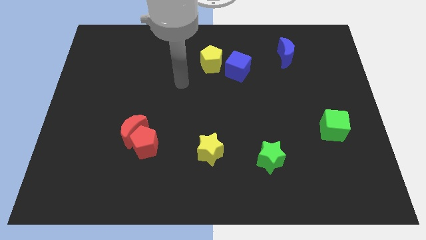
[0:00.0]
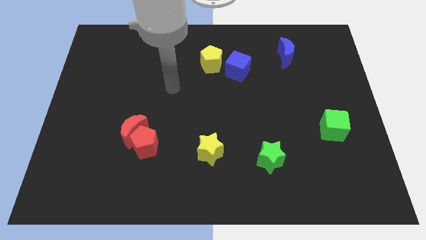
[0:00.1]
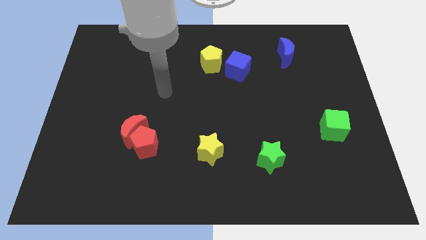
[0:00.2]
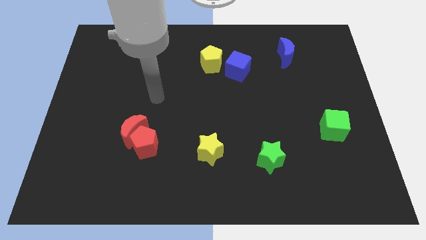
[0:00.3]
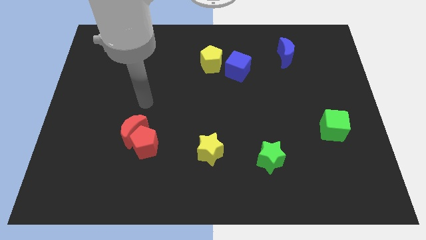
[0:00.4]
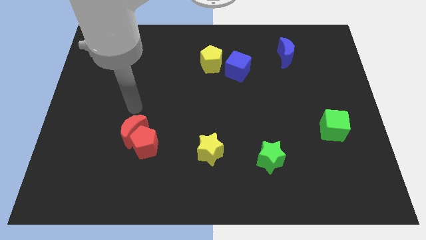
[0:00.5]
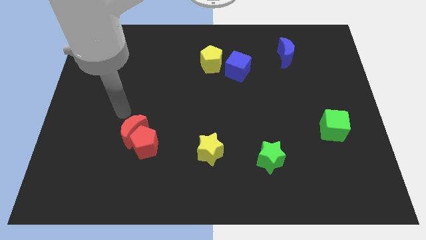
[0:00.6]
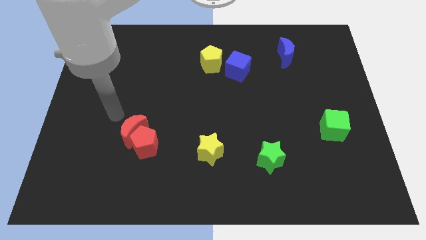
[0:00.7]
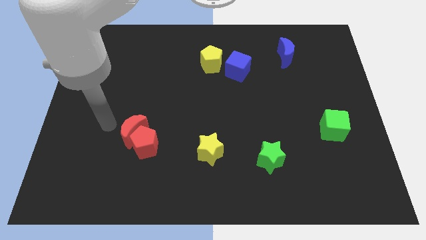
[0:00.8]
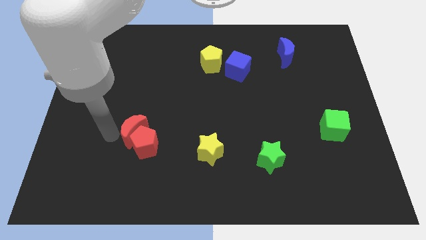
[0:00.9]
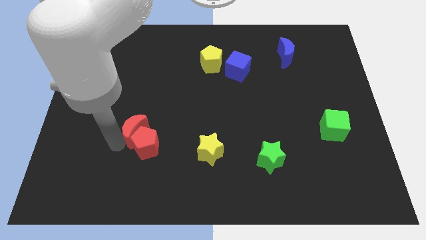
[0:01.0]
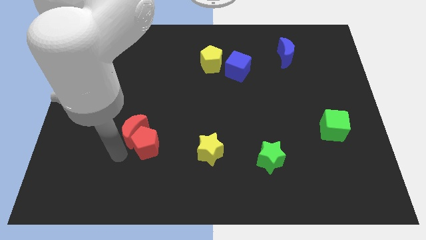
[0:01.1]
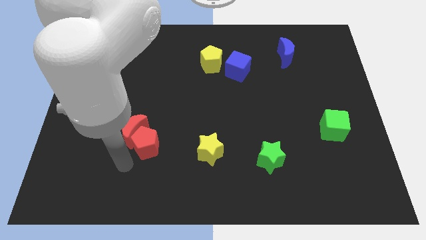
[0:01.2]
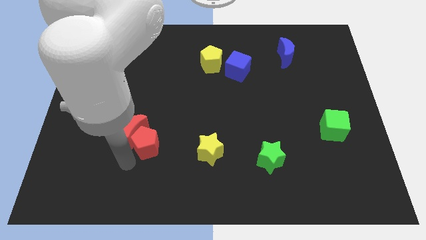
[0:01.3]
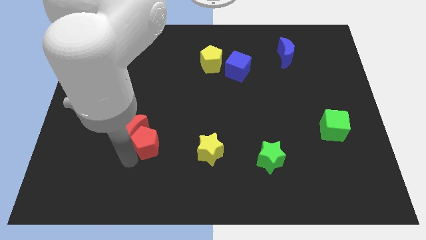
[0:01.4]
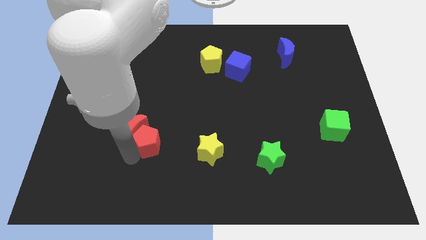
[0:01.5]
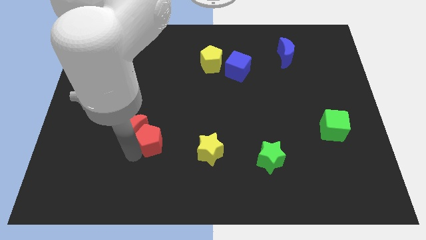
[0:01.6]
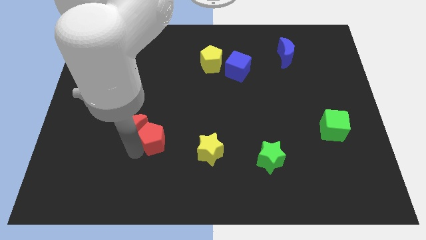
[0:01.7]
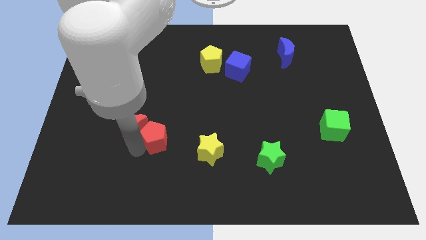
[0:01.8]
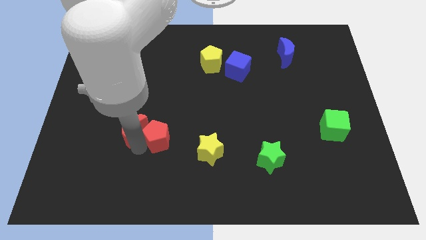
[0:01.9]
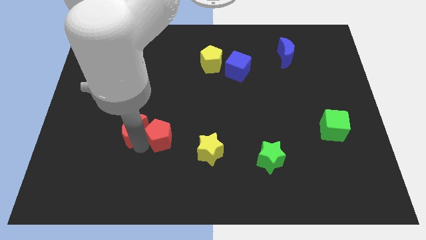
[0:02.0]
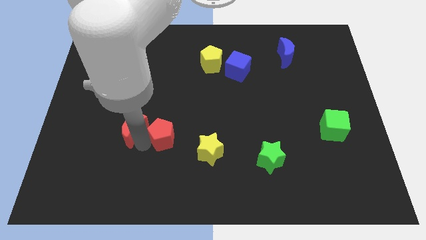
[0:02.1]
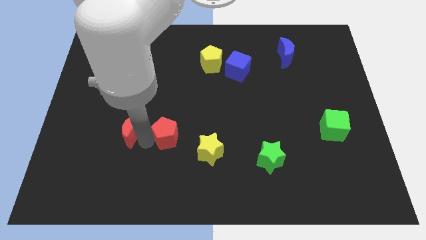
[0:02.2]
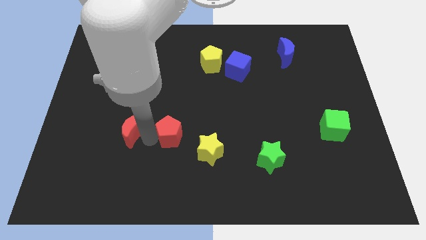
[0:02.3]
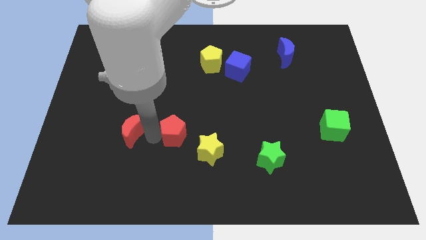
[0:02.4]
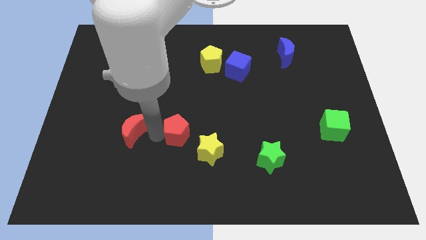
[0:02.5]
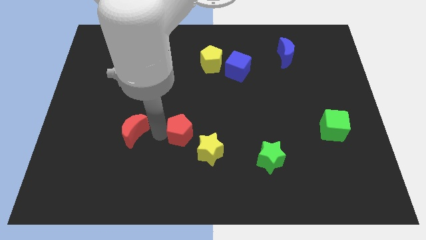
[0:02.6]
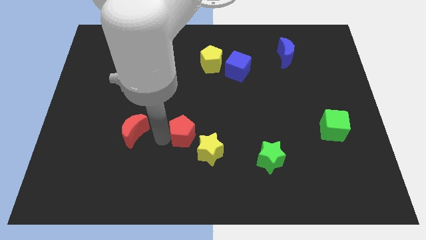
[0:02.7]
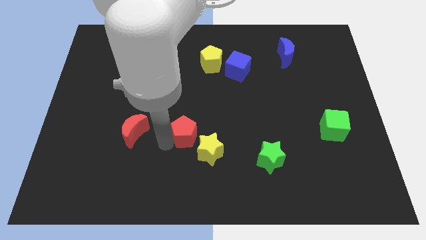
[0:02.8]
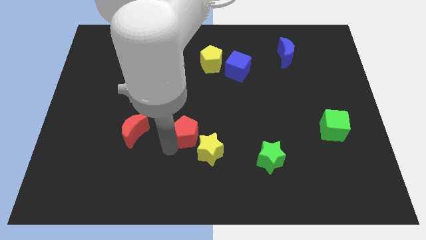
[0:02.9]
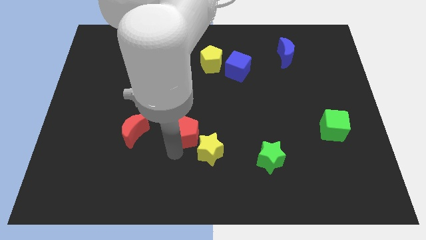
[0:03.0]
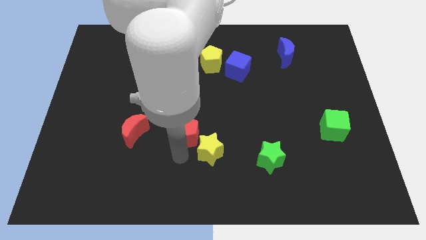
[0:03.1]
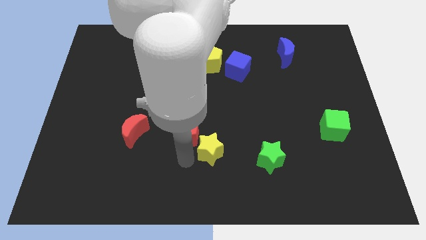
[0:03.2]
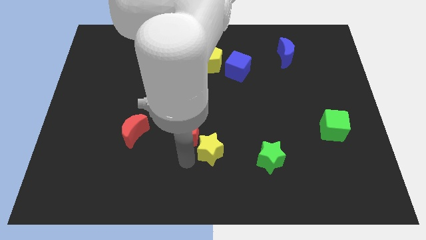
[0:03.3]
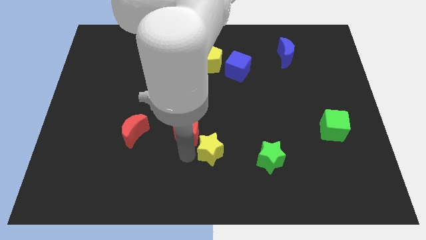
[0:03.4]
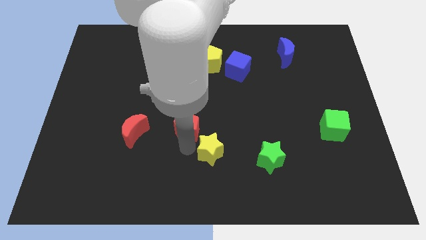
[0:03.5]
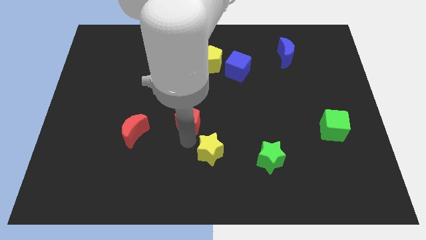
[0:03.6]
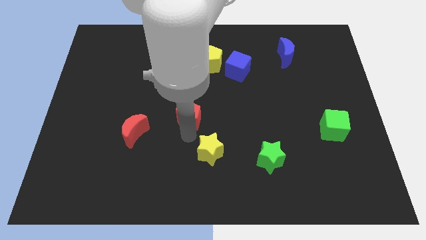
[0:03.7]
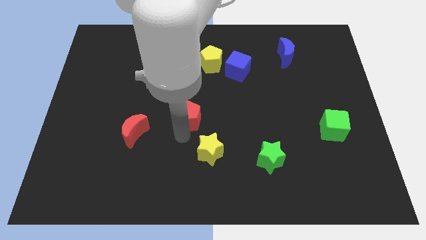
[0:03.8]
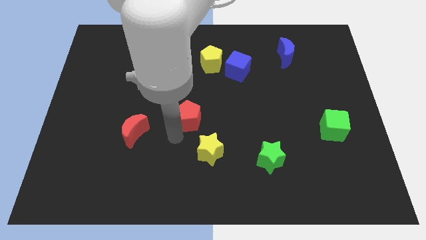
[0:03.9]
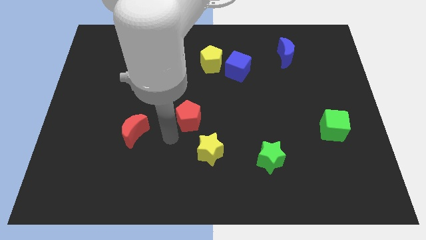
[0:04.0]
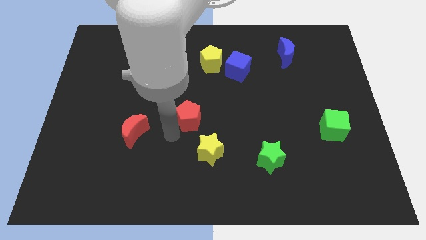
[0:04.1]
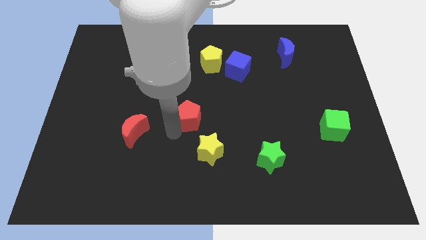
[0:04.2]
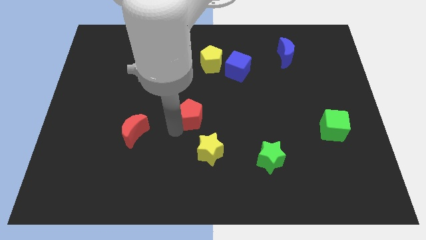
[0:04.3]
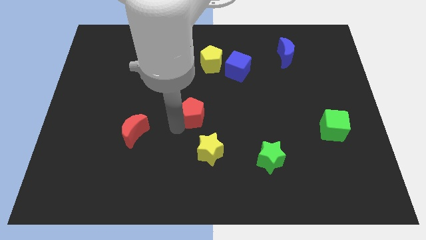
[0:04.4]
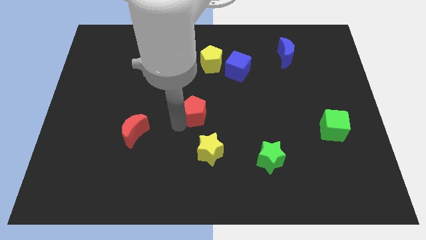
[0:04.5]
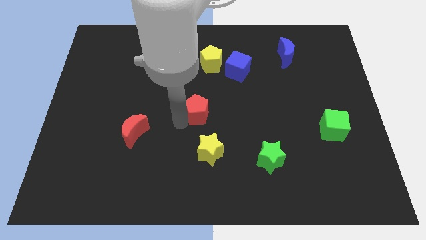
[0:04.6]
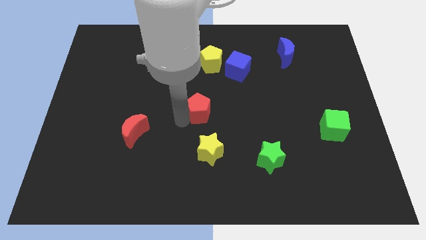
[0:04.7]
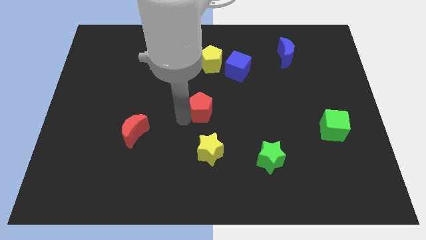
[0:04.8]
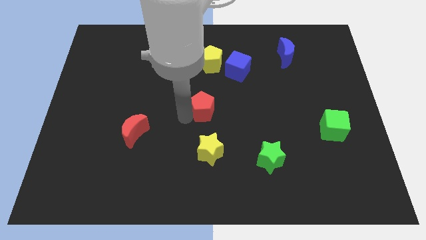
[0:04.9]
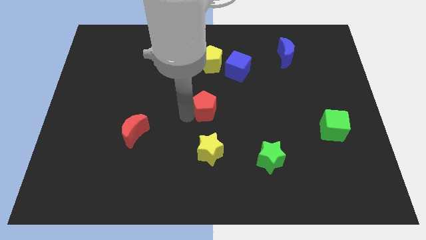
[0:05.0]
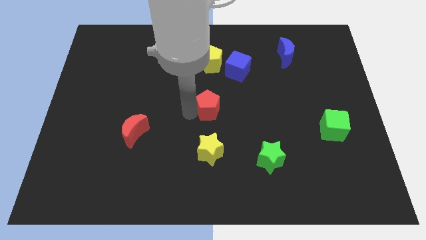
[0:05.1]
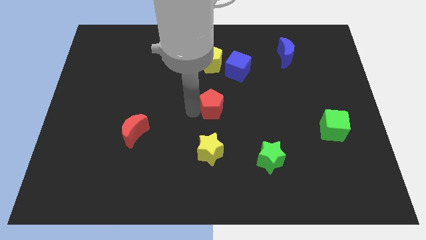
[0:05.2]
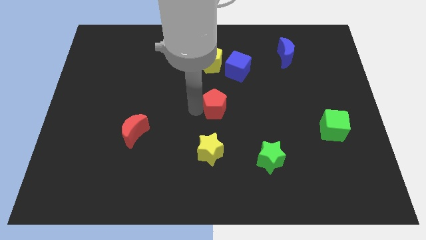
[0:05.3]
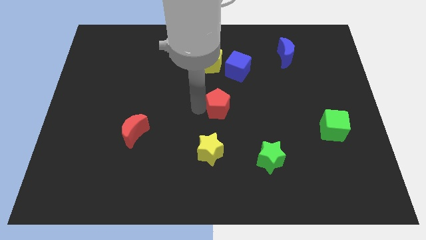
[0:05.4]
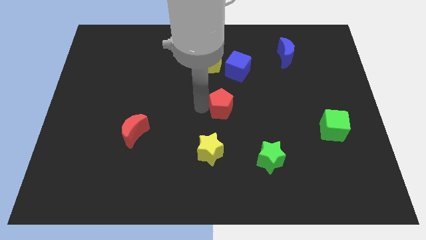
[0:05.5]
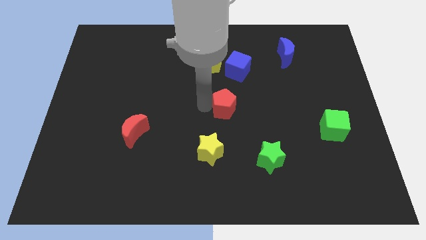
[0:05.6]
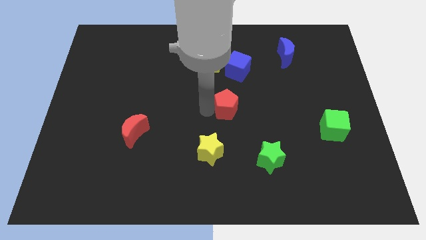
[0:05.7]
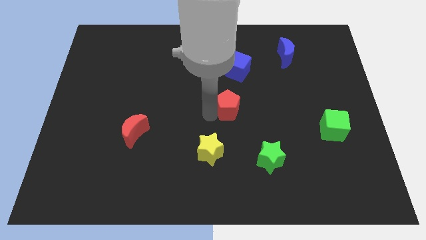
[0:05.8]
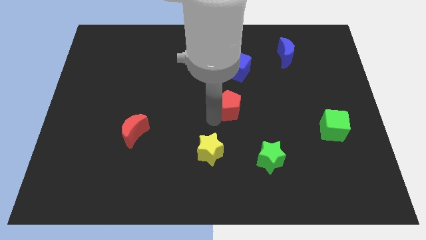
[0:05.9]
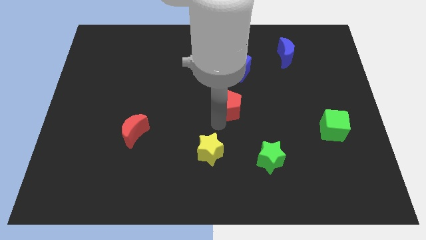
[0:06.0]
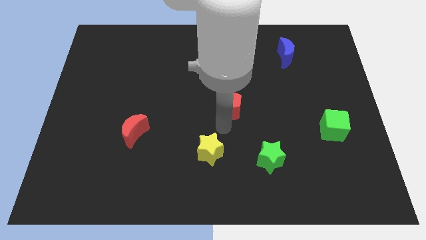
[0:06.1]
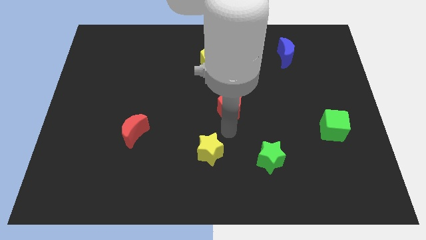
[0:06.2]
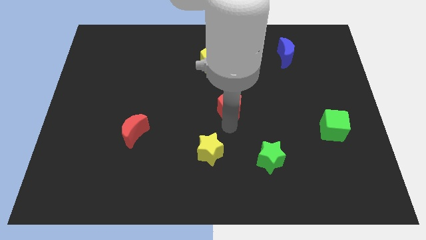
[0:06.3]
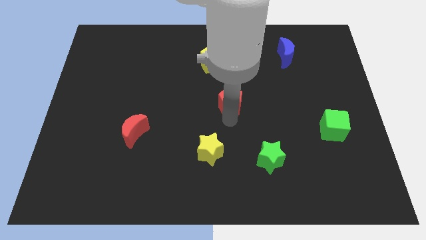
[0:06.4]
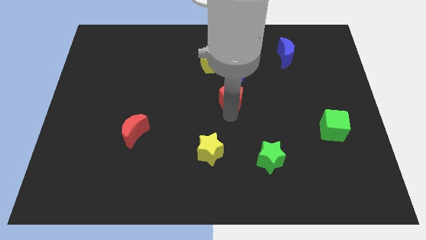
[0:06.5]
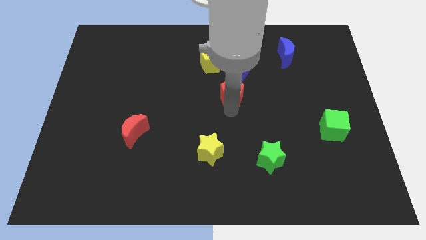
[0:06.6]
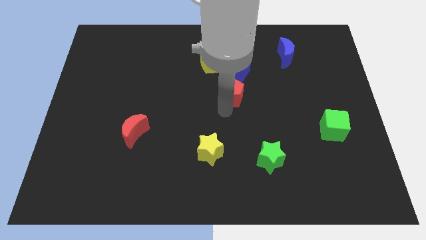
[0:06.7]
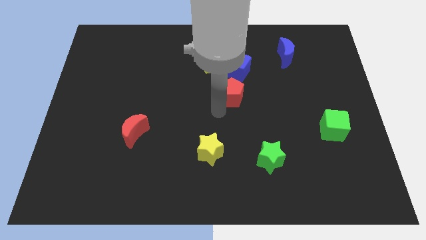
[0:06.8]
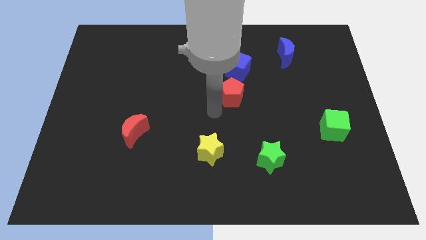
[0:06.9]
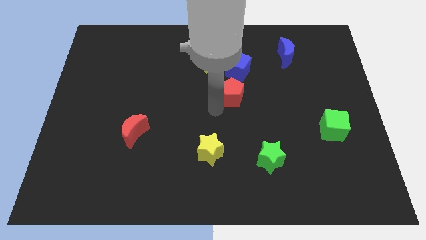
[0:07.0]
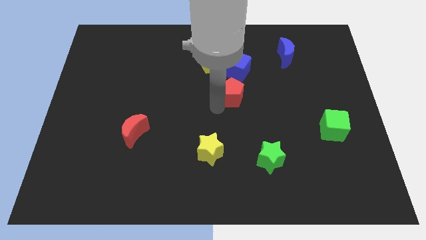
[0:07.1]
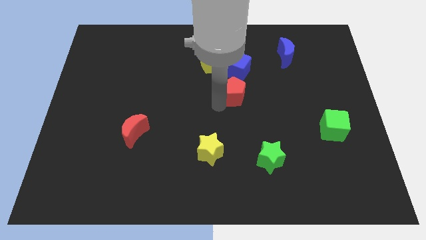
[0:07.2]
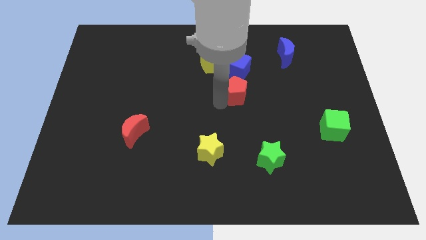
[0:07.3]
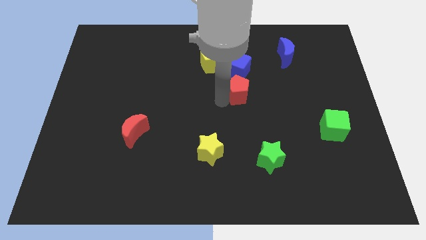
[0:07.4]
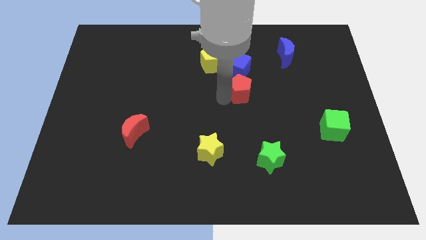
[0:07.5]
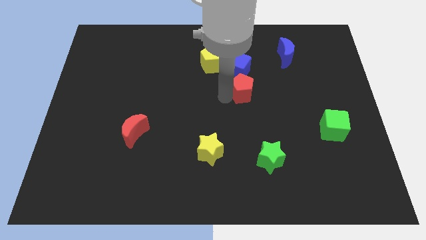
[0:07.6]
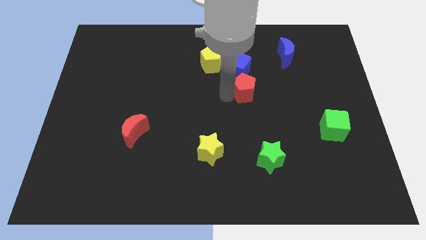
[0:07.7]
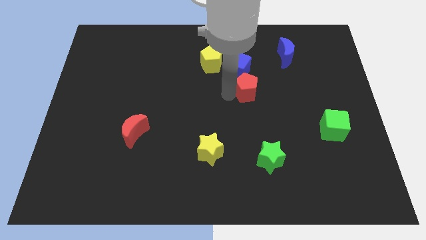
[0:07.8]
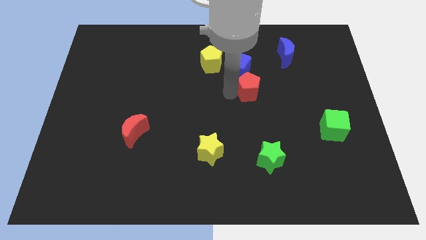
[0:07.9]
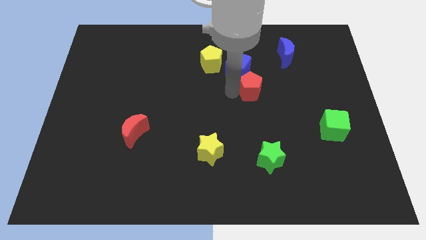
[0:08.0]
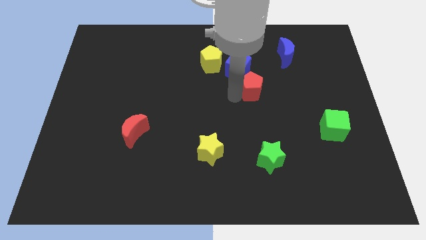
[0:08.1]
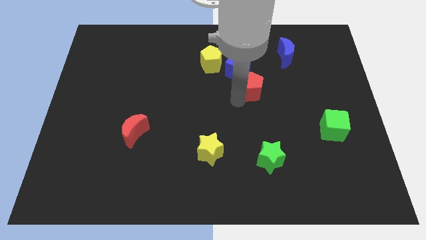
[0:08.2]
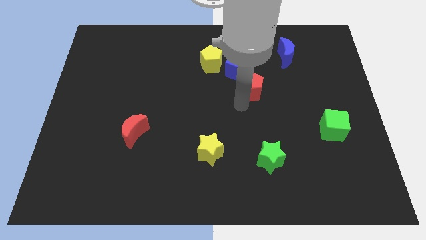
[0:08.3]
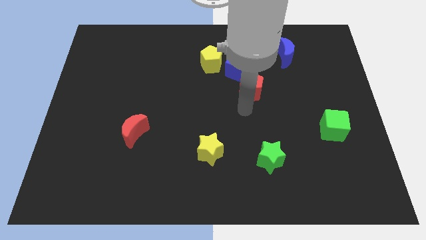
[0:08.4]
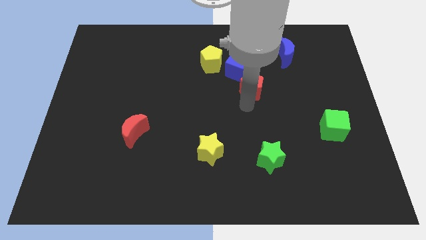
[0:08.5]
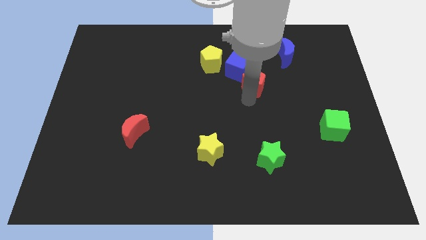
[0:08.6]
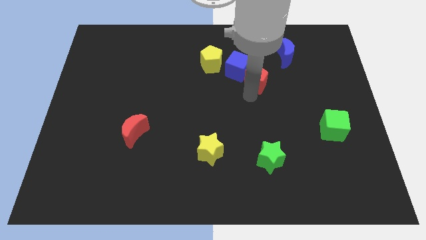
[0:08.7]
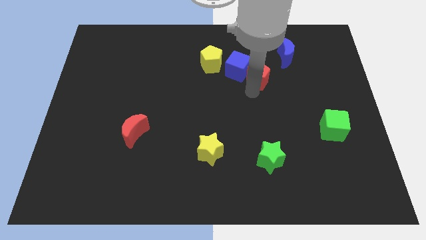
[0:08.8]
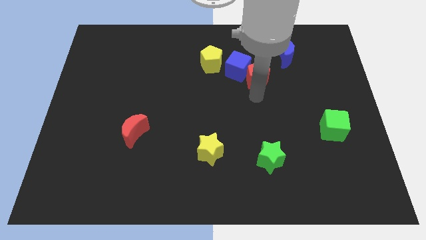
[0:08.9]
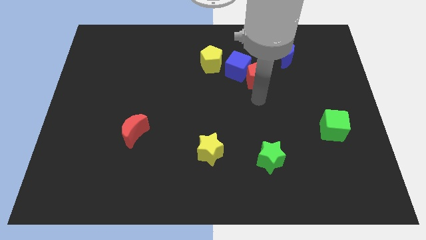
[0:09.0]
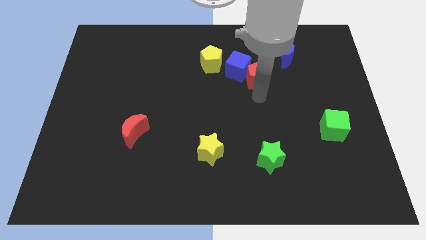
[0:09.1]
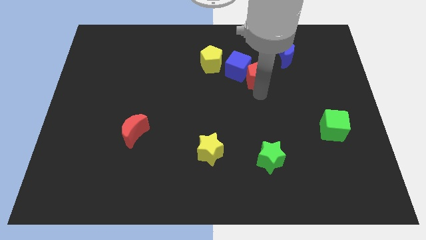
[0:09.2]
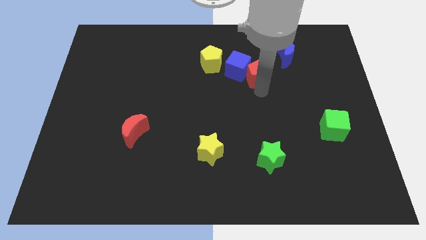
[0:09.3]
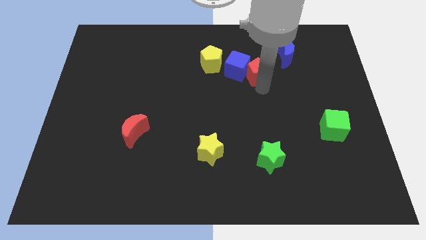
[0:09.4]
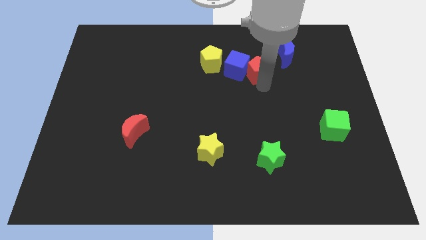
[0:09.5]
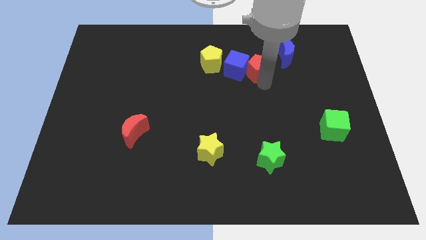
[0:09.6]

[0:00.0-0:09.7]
push the red pentagon to the top right of the blue cube
